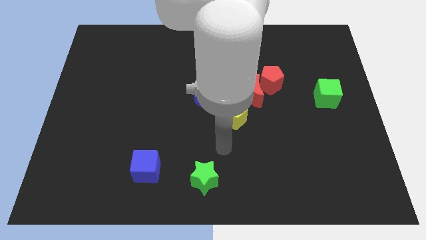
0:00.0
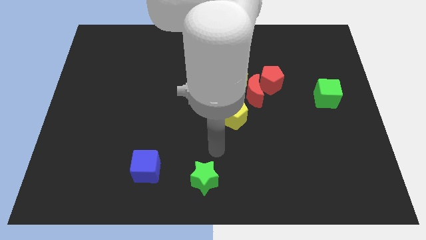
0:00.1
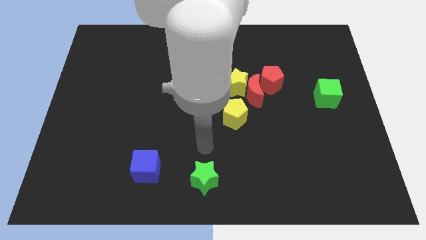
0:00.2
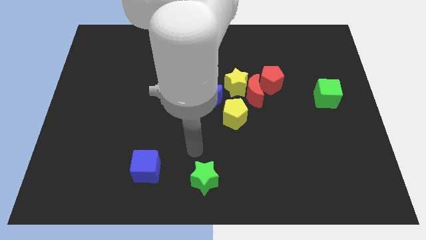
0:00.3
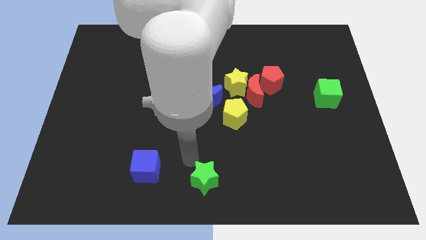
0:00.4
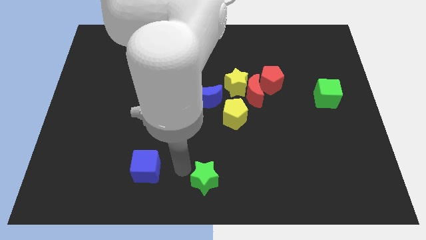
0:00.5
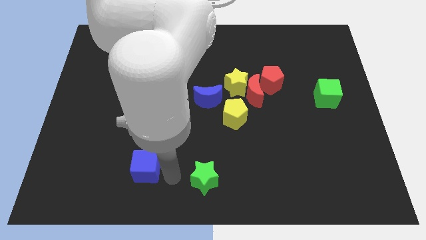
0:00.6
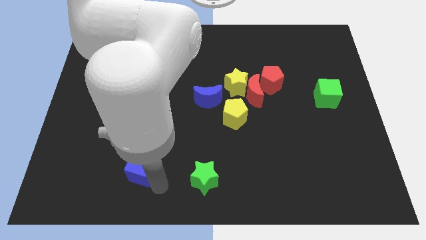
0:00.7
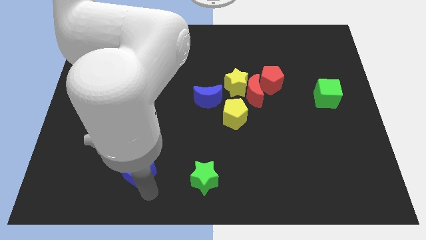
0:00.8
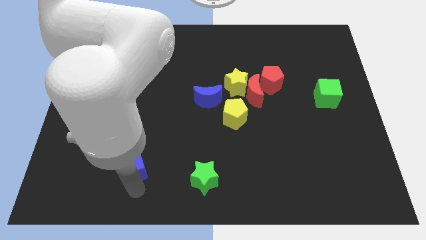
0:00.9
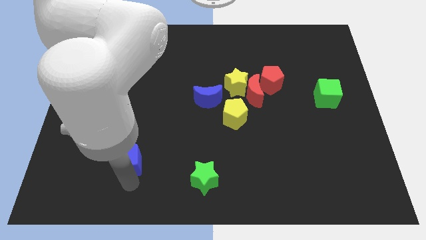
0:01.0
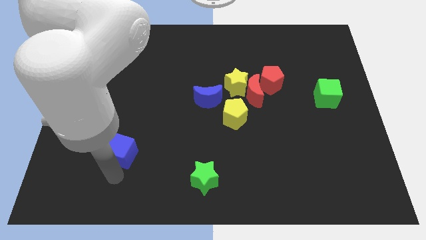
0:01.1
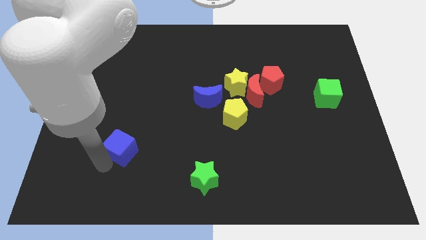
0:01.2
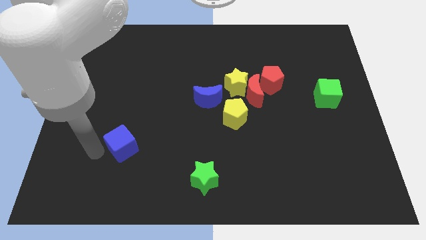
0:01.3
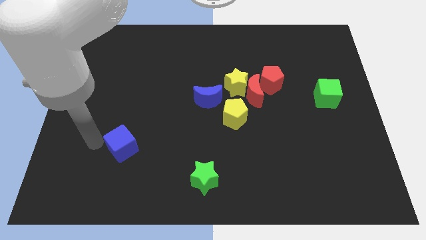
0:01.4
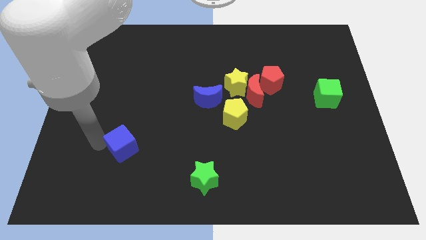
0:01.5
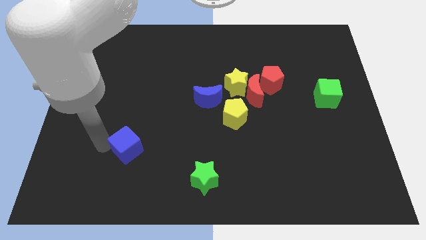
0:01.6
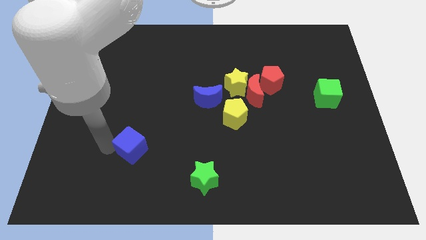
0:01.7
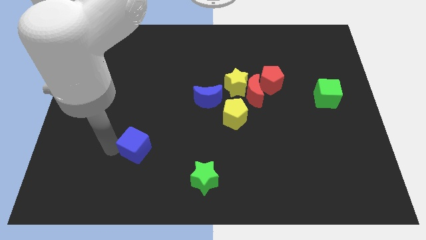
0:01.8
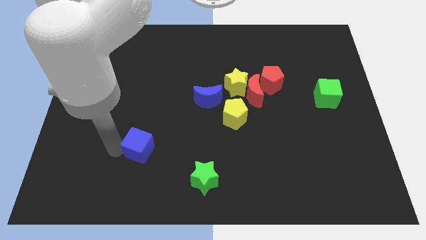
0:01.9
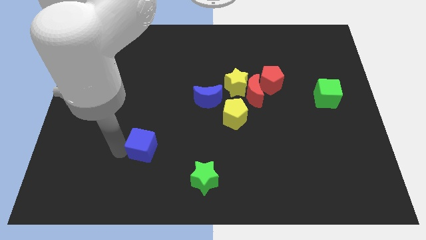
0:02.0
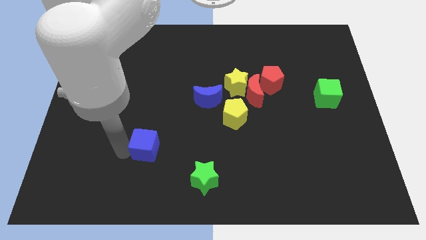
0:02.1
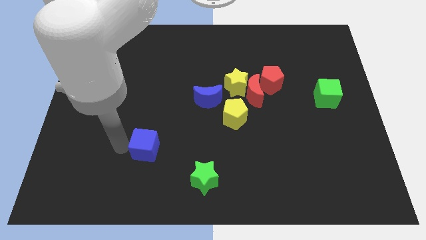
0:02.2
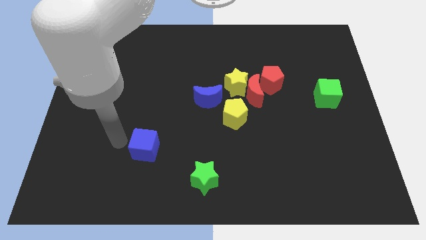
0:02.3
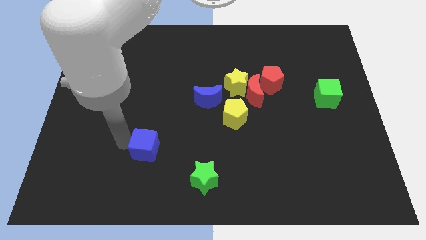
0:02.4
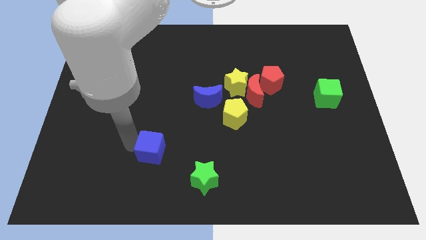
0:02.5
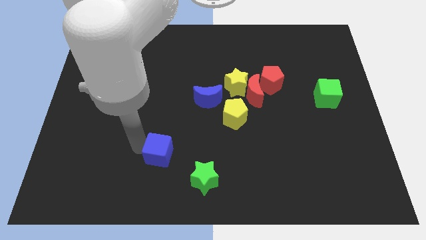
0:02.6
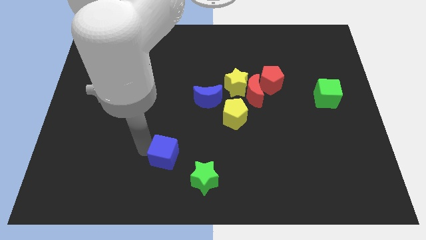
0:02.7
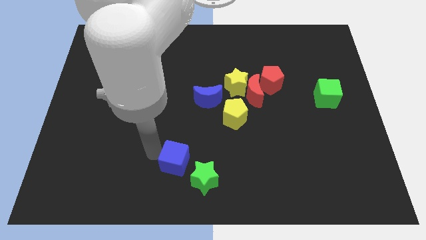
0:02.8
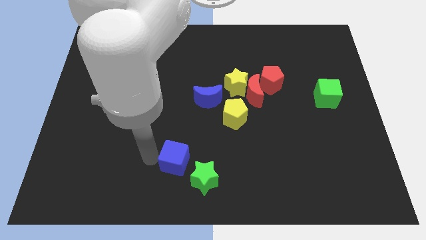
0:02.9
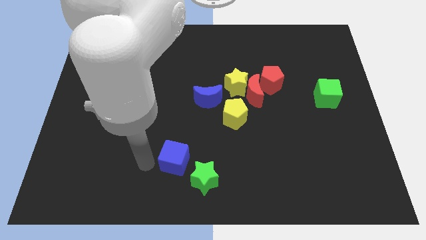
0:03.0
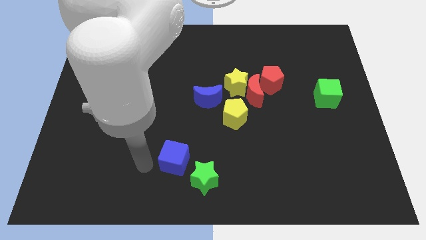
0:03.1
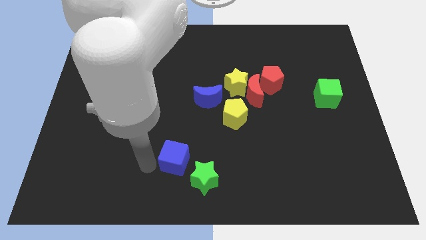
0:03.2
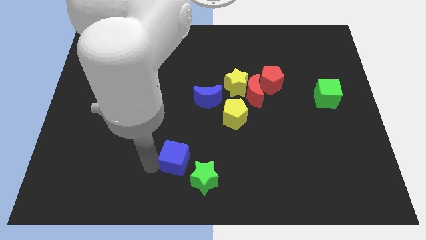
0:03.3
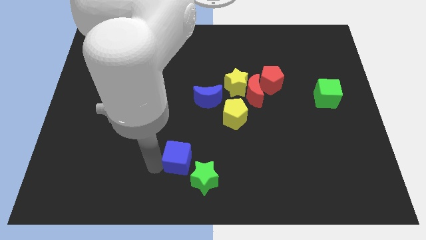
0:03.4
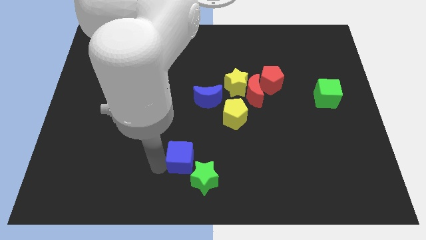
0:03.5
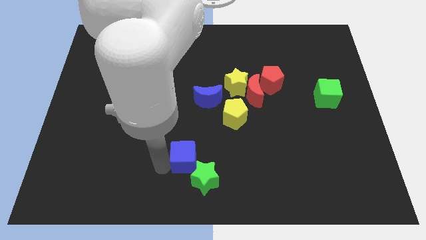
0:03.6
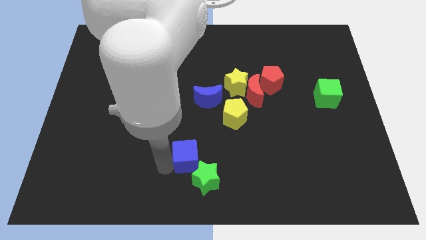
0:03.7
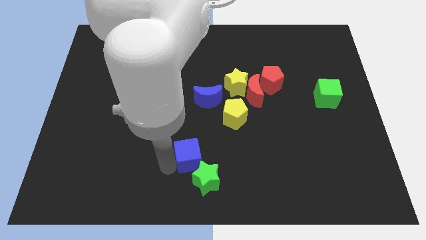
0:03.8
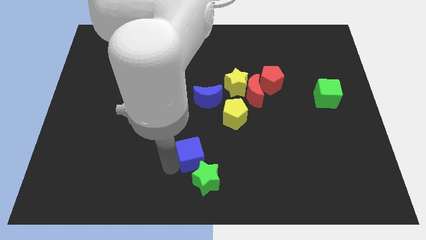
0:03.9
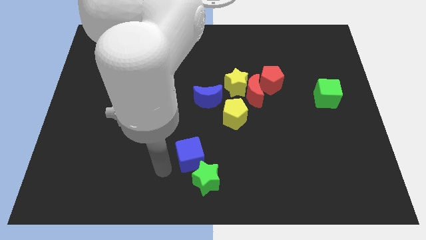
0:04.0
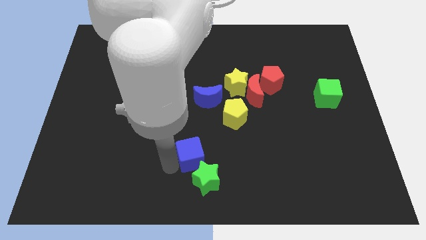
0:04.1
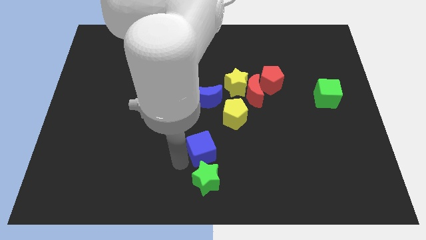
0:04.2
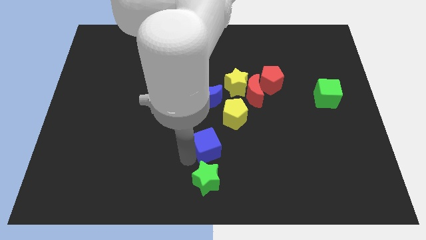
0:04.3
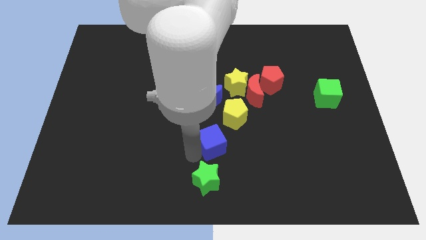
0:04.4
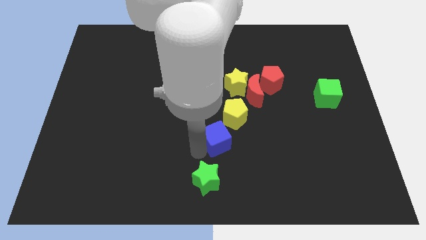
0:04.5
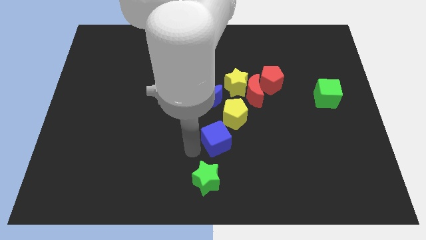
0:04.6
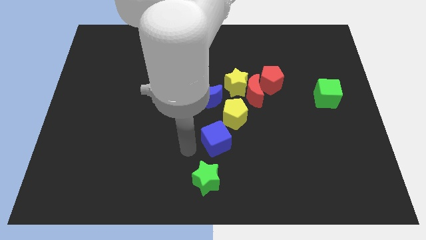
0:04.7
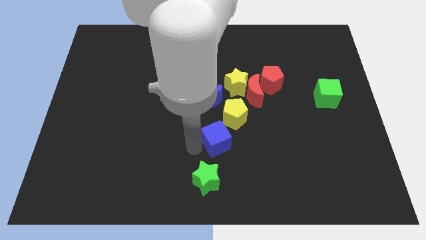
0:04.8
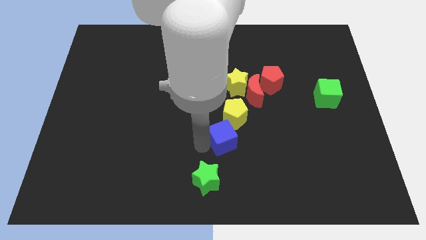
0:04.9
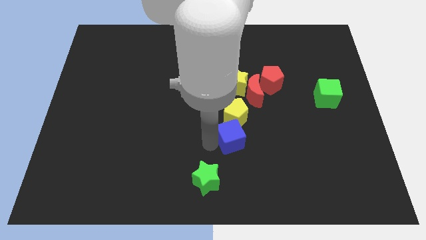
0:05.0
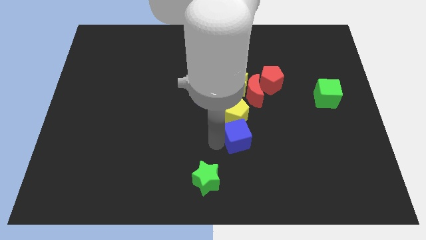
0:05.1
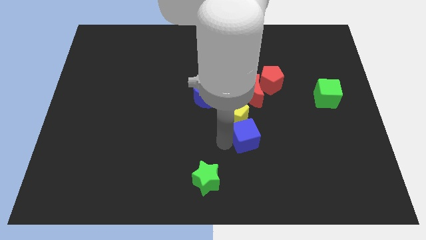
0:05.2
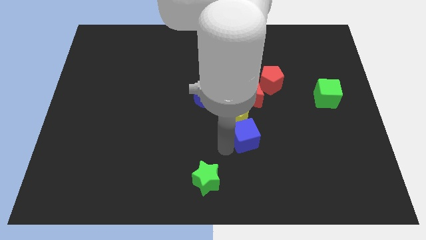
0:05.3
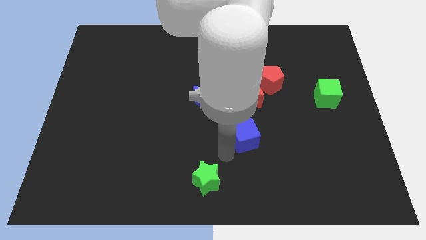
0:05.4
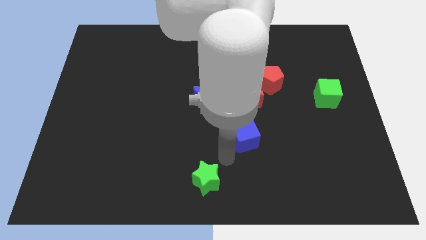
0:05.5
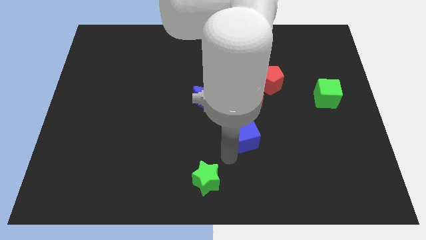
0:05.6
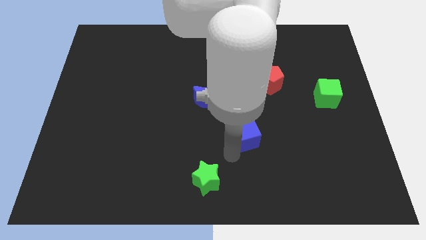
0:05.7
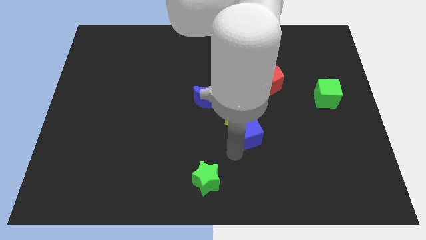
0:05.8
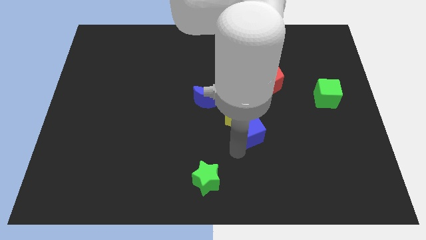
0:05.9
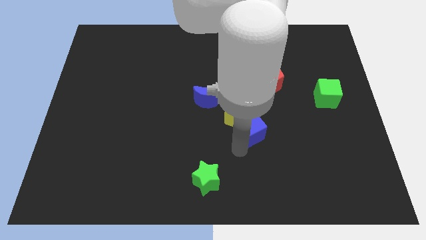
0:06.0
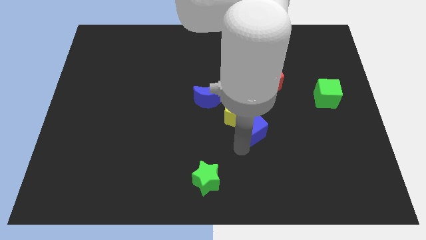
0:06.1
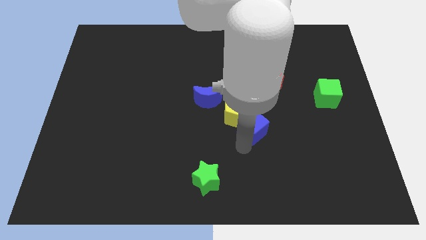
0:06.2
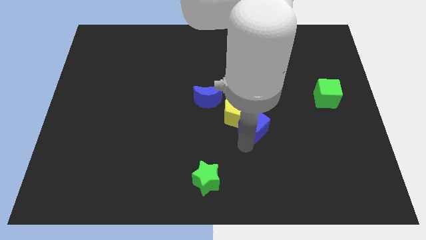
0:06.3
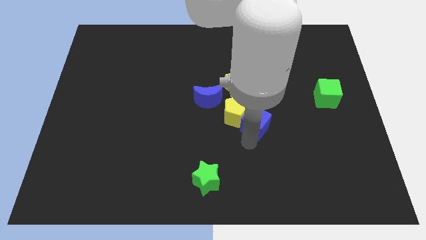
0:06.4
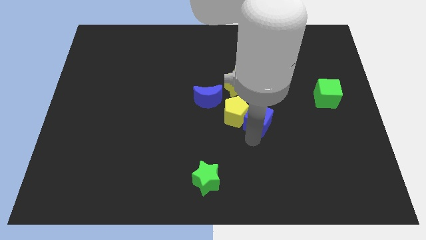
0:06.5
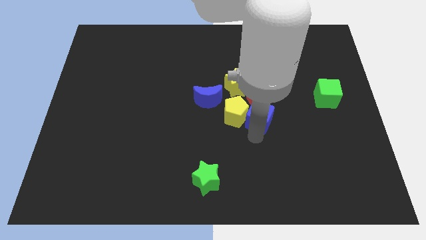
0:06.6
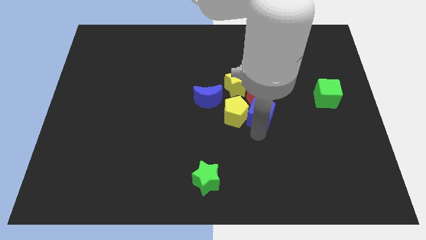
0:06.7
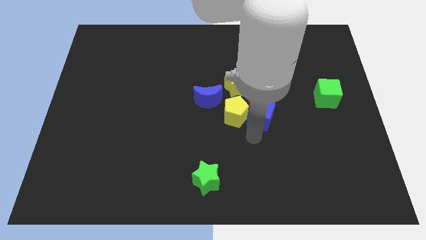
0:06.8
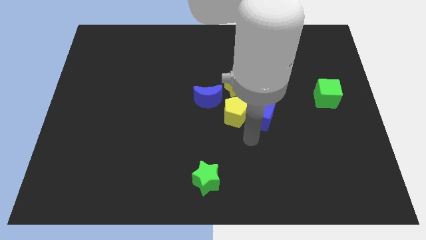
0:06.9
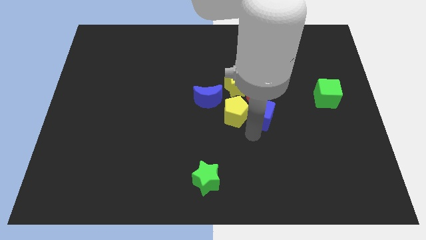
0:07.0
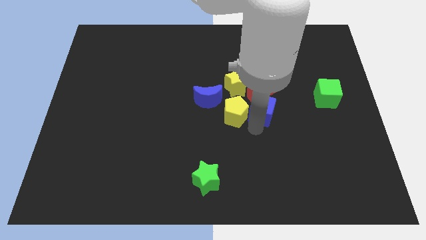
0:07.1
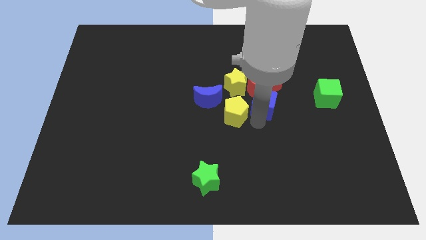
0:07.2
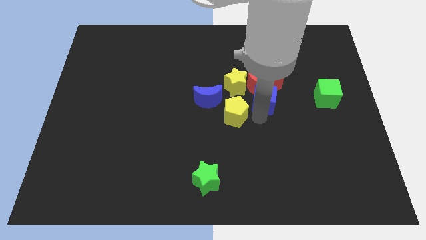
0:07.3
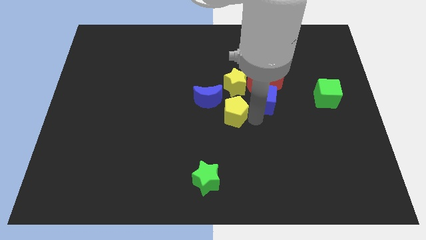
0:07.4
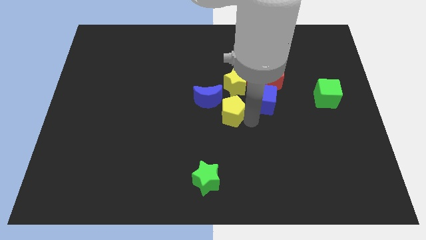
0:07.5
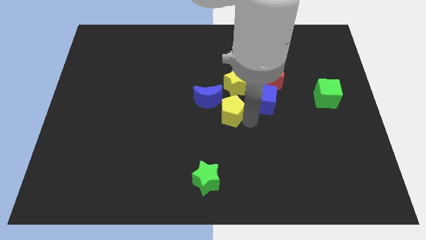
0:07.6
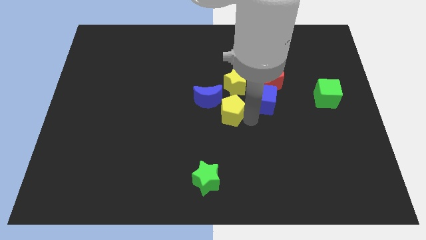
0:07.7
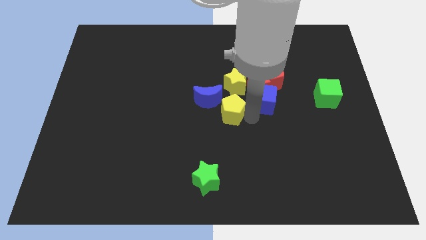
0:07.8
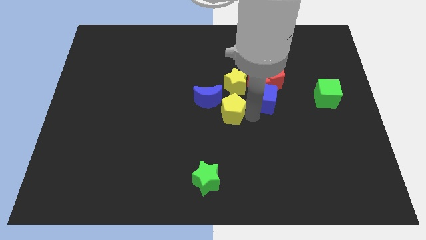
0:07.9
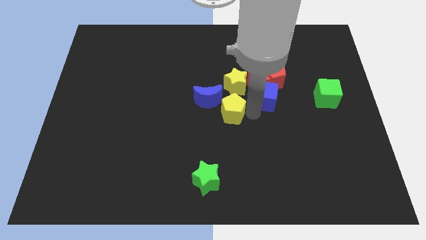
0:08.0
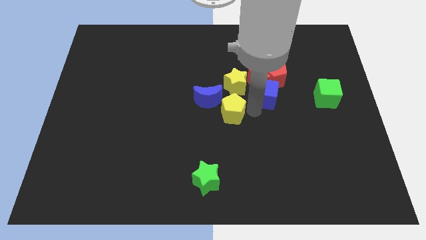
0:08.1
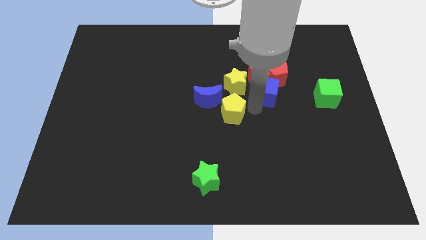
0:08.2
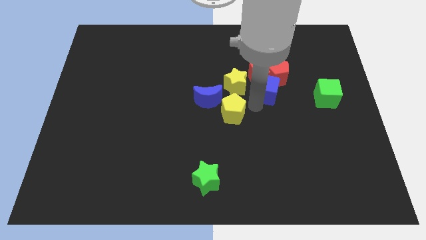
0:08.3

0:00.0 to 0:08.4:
put the blue cube towards the red pentagon
